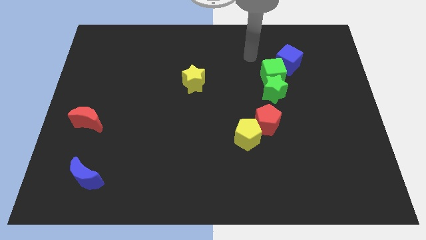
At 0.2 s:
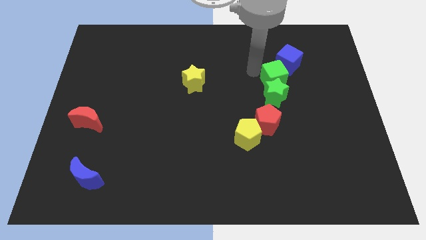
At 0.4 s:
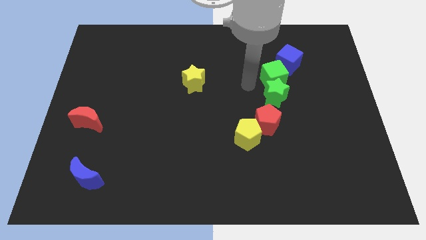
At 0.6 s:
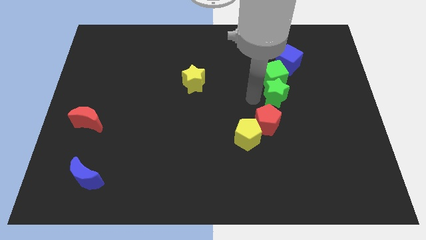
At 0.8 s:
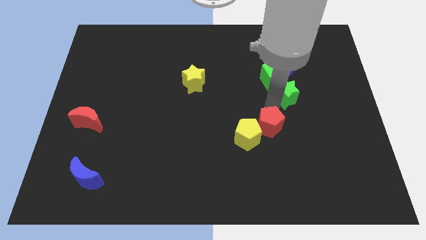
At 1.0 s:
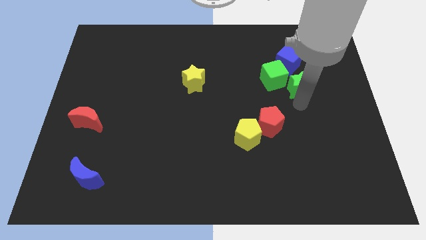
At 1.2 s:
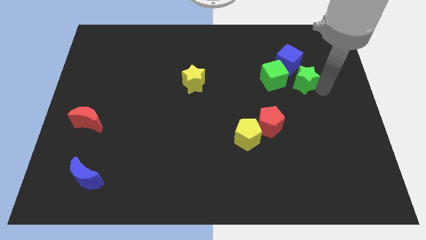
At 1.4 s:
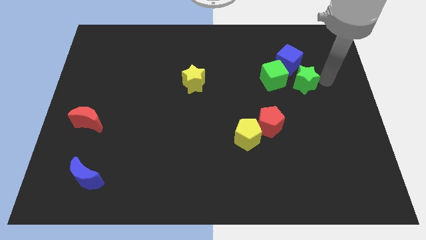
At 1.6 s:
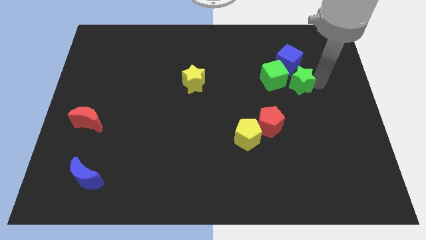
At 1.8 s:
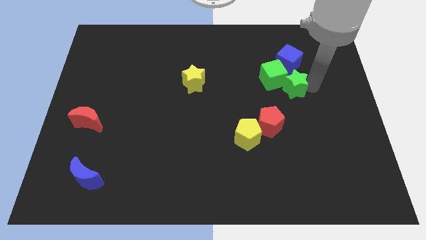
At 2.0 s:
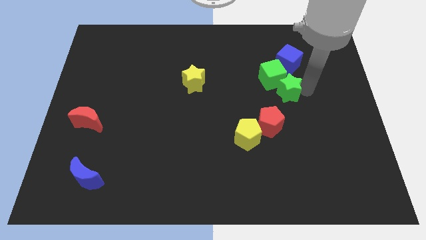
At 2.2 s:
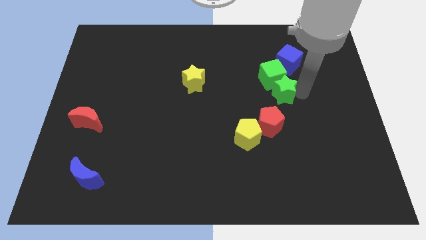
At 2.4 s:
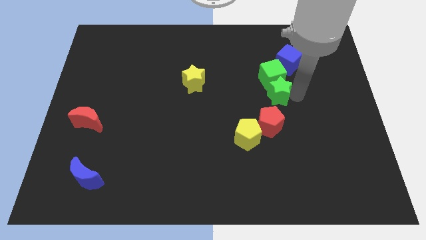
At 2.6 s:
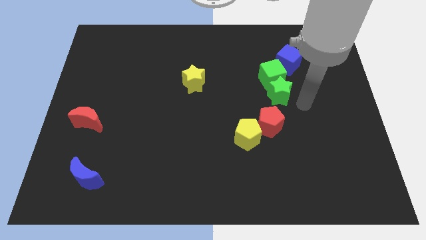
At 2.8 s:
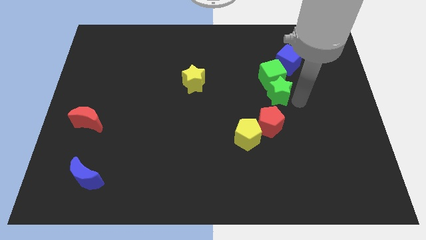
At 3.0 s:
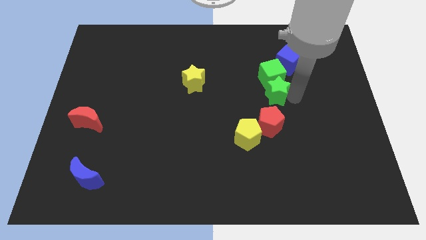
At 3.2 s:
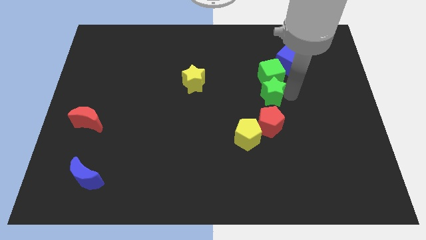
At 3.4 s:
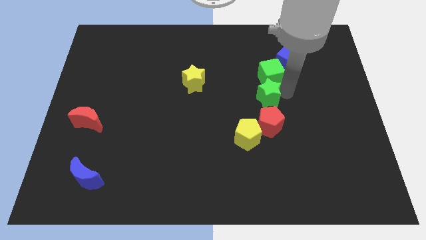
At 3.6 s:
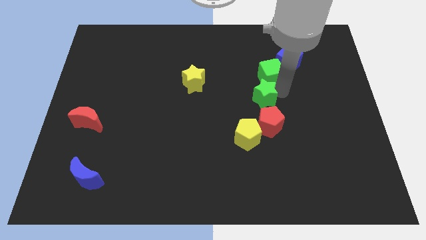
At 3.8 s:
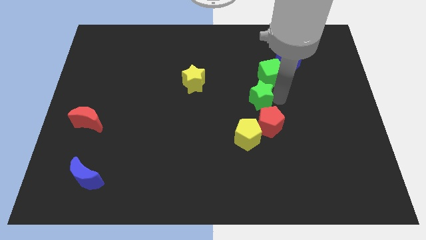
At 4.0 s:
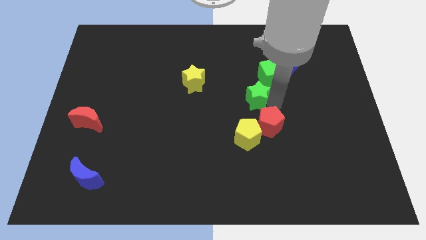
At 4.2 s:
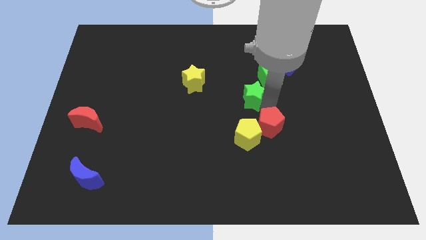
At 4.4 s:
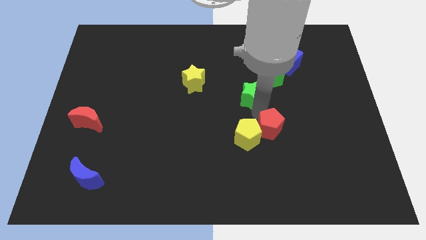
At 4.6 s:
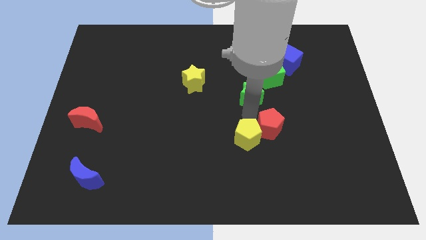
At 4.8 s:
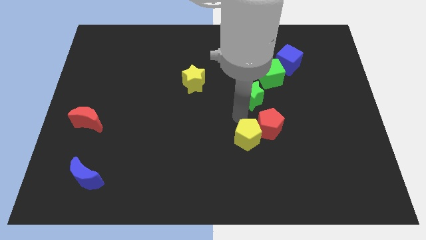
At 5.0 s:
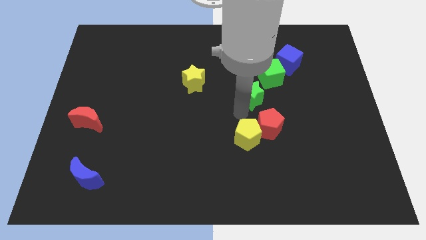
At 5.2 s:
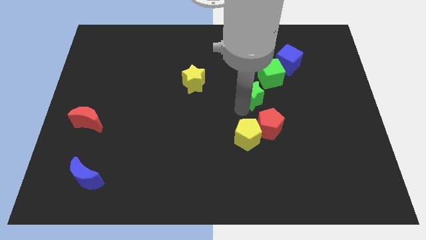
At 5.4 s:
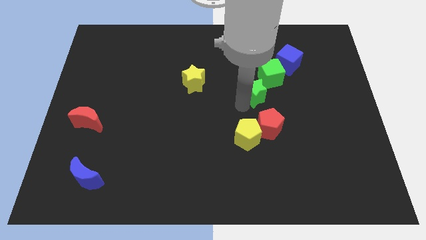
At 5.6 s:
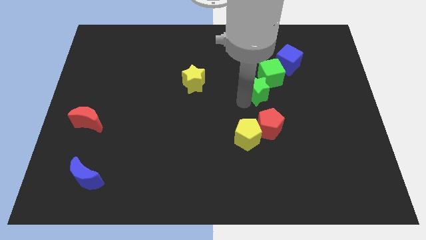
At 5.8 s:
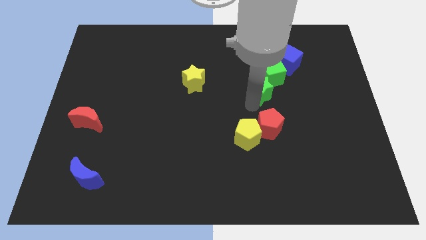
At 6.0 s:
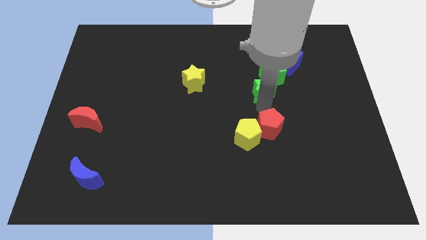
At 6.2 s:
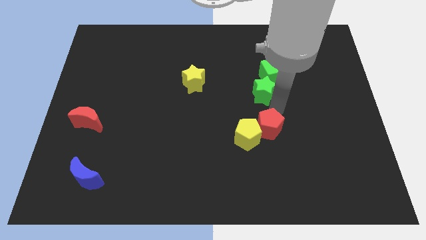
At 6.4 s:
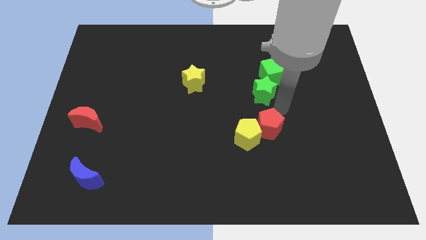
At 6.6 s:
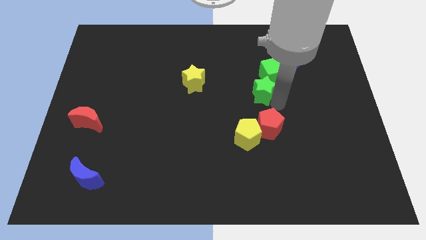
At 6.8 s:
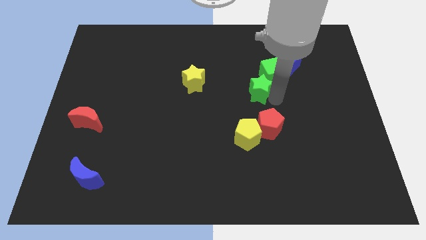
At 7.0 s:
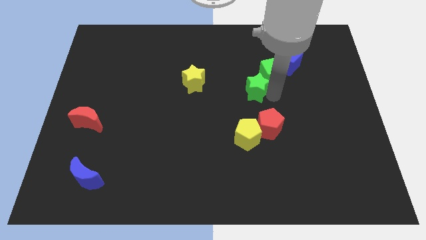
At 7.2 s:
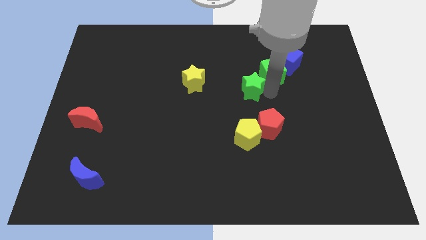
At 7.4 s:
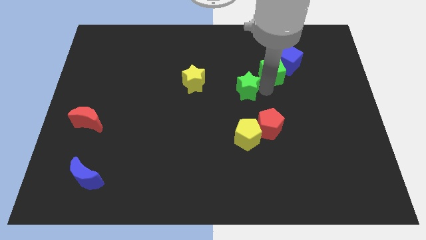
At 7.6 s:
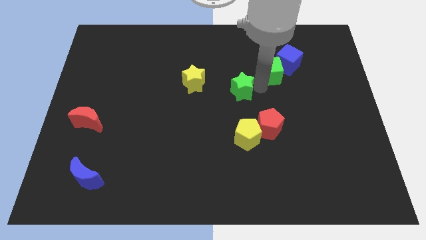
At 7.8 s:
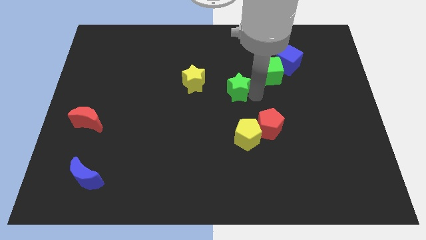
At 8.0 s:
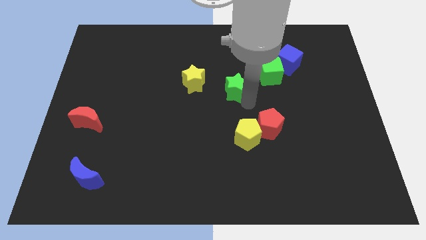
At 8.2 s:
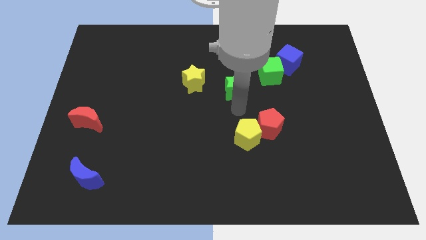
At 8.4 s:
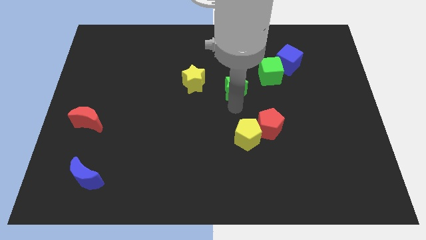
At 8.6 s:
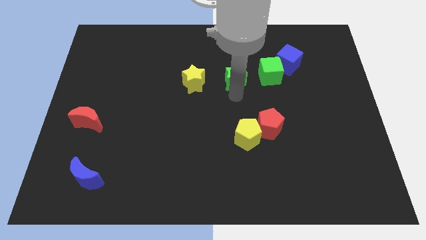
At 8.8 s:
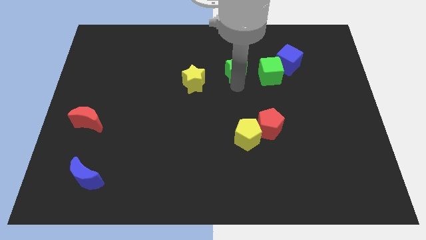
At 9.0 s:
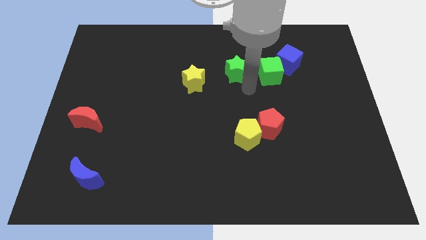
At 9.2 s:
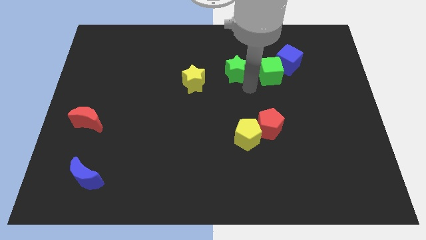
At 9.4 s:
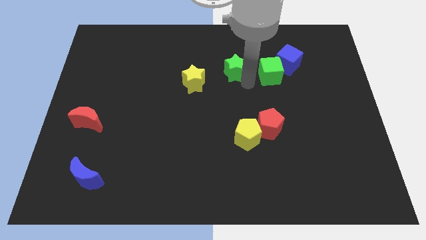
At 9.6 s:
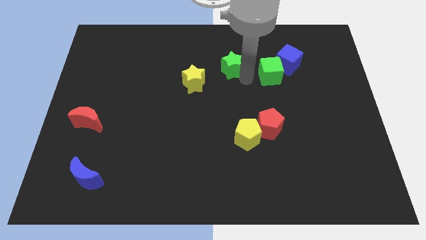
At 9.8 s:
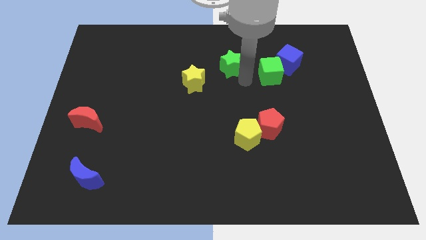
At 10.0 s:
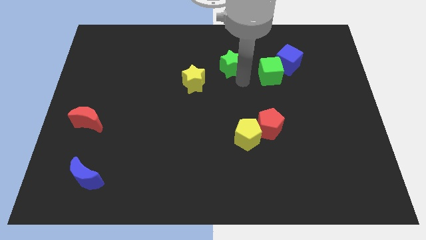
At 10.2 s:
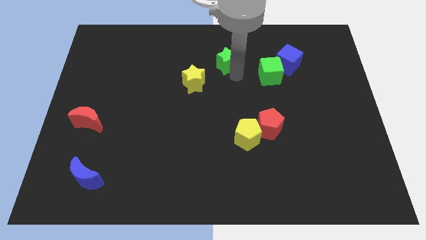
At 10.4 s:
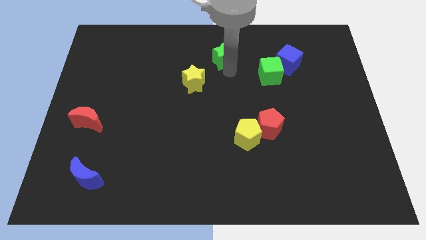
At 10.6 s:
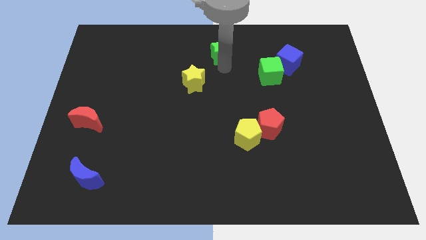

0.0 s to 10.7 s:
put the green star to the top

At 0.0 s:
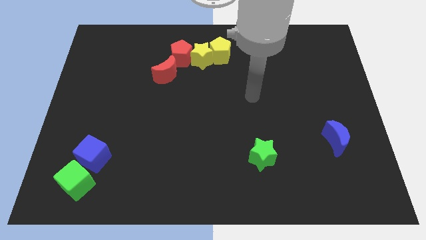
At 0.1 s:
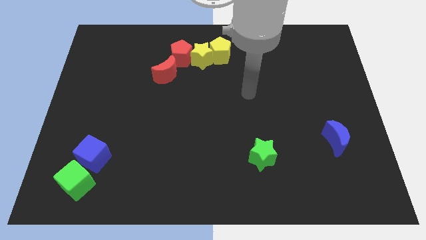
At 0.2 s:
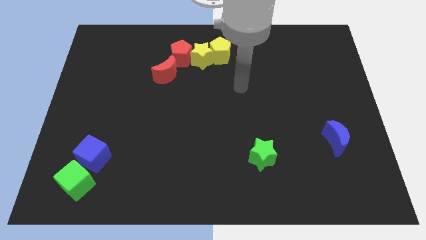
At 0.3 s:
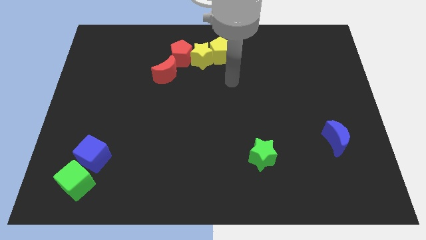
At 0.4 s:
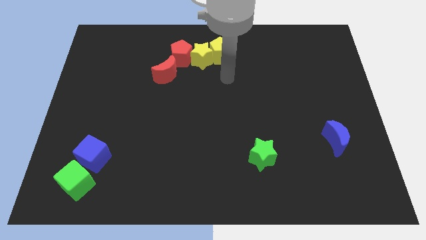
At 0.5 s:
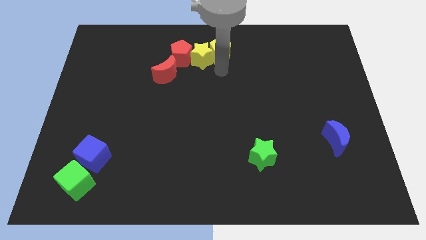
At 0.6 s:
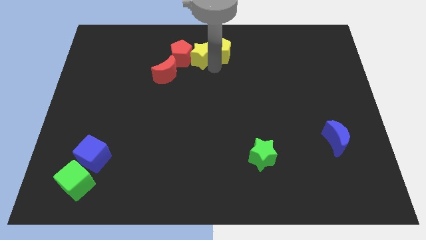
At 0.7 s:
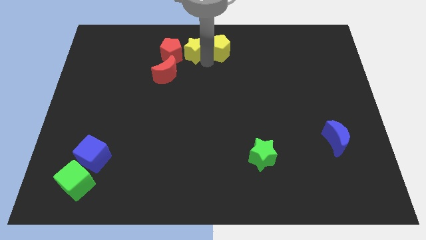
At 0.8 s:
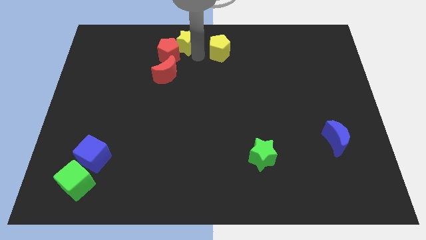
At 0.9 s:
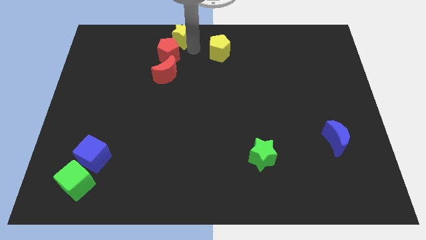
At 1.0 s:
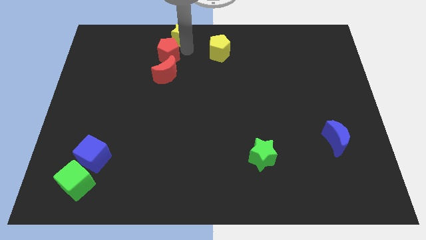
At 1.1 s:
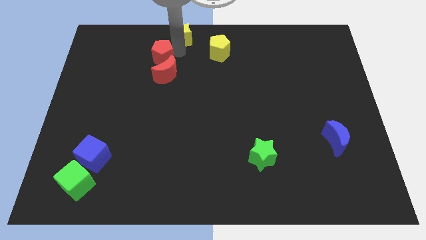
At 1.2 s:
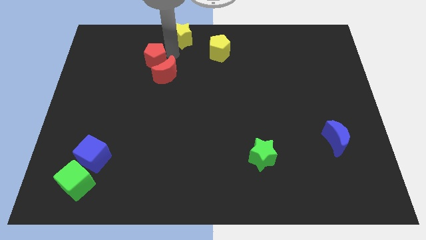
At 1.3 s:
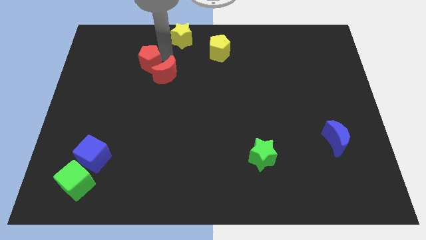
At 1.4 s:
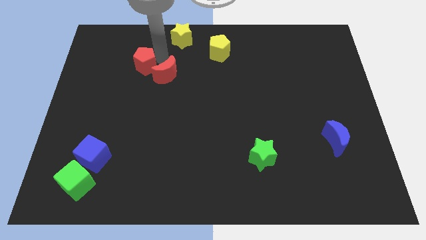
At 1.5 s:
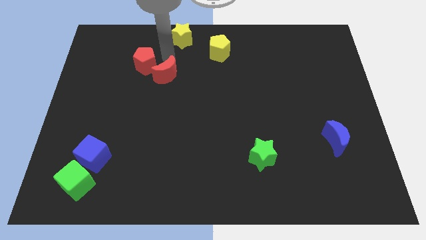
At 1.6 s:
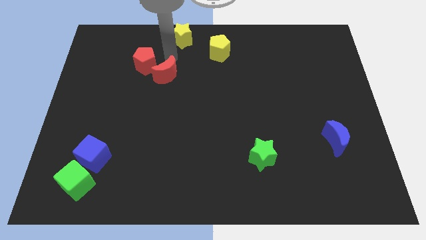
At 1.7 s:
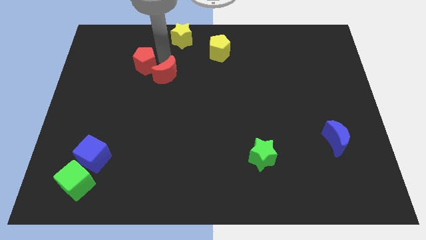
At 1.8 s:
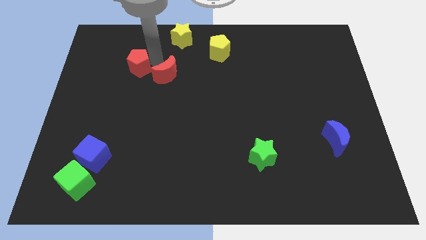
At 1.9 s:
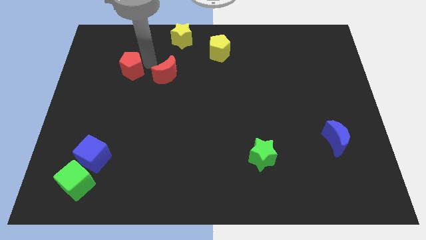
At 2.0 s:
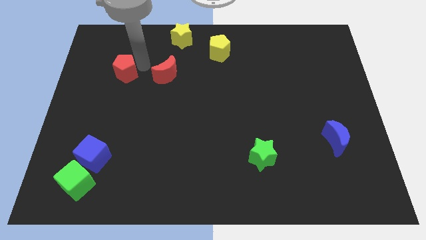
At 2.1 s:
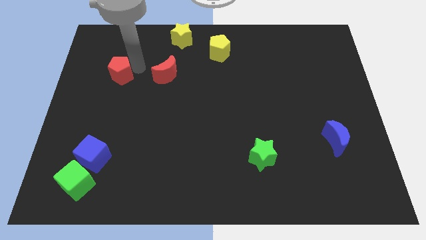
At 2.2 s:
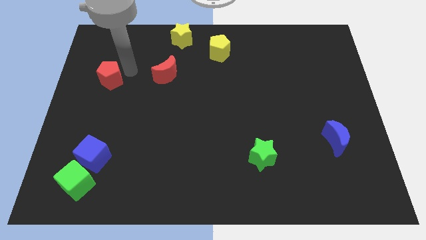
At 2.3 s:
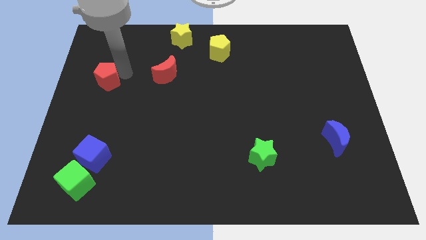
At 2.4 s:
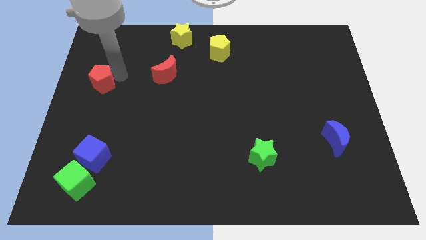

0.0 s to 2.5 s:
move the red pentagon to the center left
